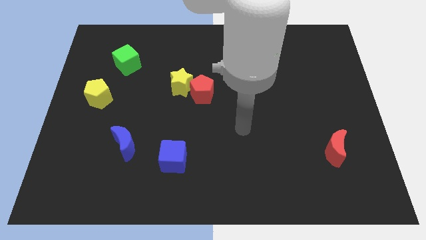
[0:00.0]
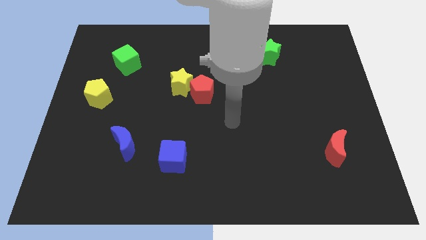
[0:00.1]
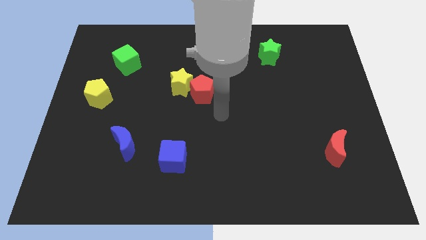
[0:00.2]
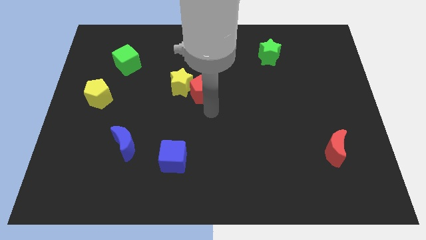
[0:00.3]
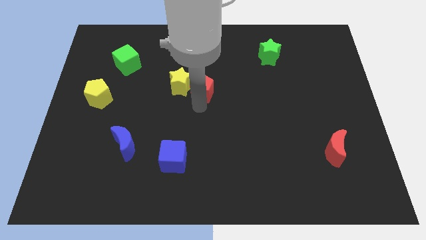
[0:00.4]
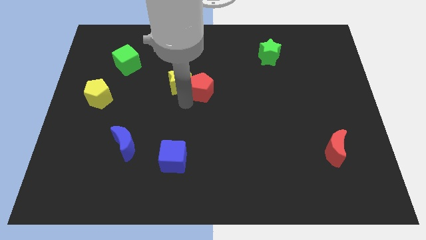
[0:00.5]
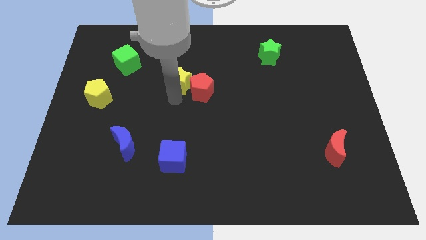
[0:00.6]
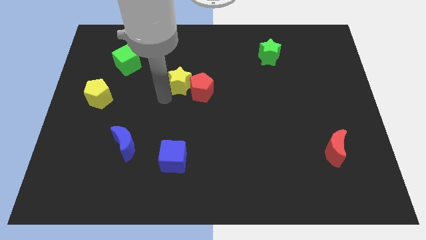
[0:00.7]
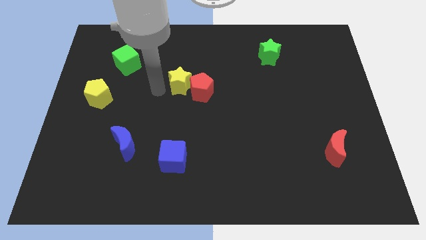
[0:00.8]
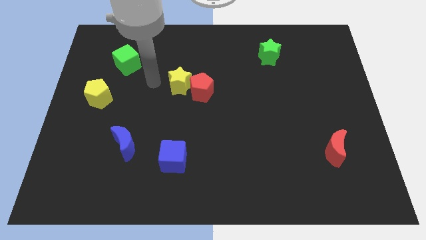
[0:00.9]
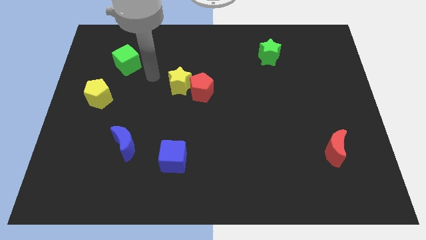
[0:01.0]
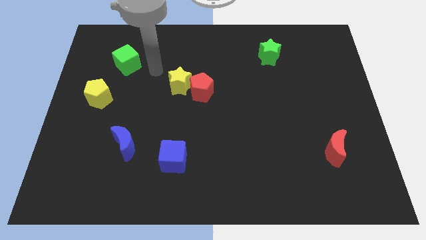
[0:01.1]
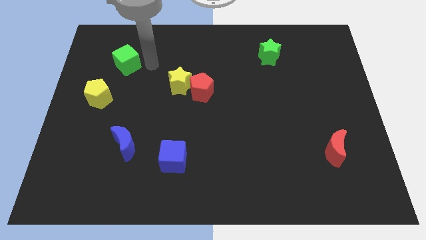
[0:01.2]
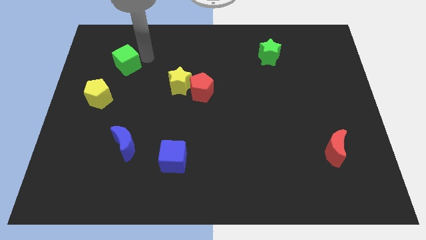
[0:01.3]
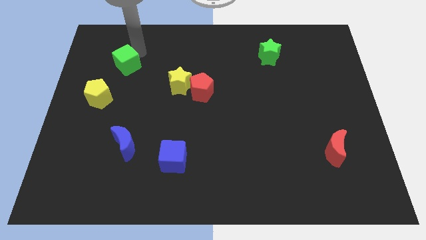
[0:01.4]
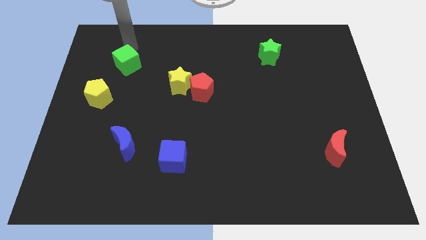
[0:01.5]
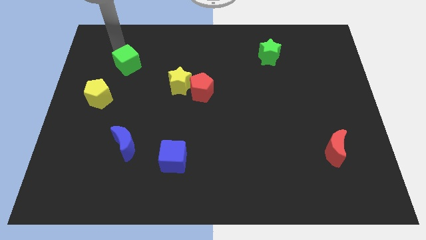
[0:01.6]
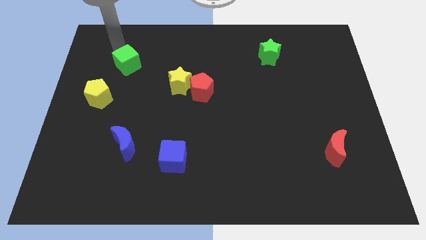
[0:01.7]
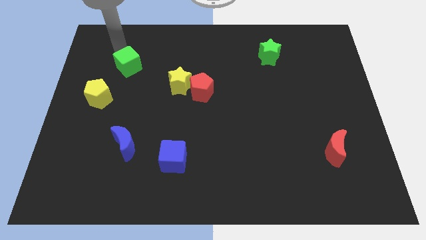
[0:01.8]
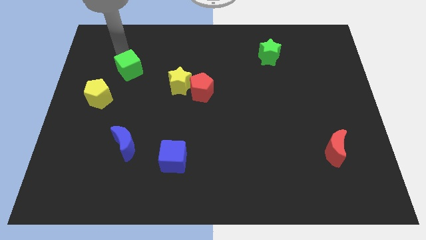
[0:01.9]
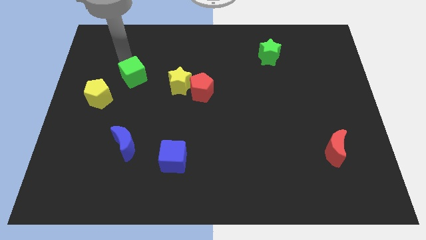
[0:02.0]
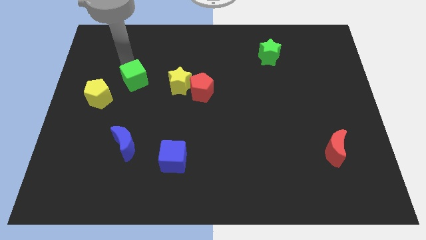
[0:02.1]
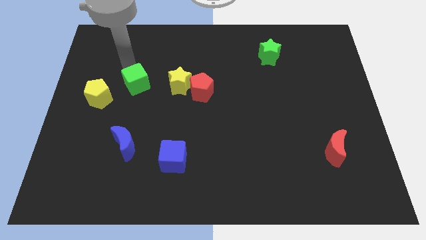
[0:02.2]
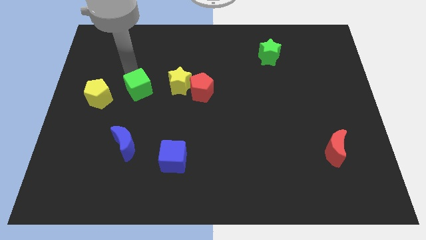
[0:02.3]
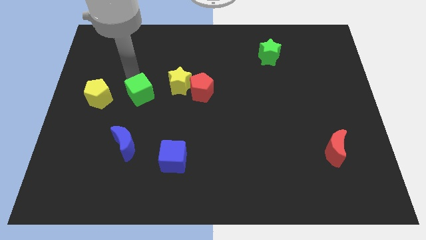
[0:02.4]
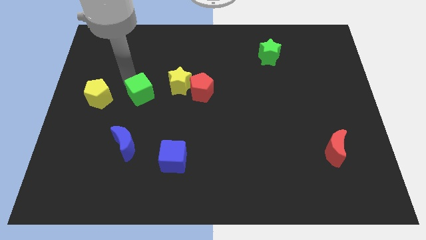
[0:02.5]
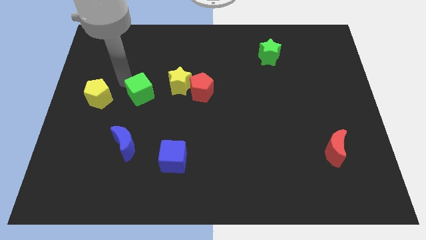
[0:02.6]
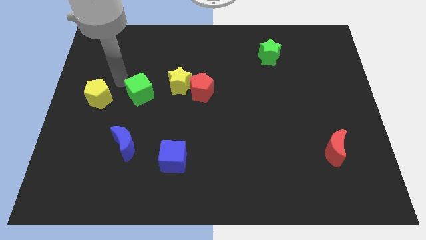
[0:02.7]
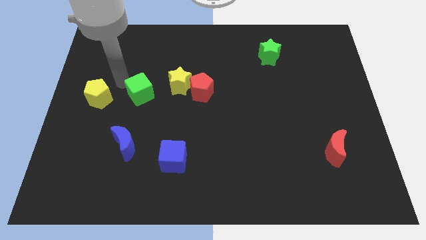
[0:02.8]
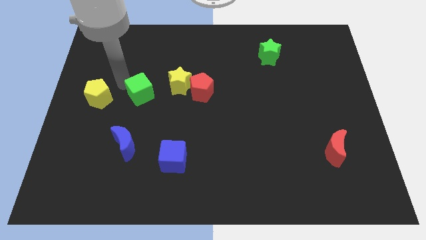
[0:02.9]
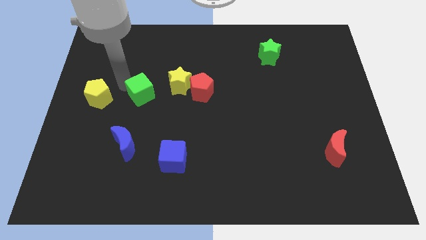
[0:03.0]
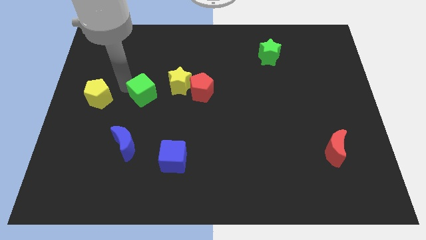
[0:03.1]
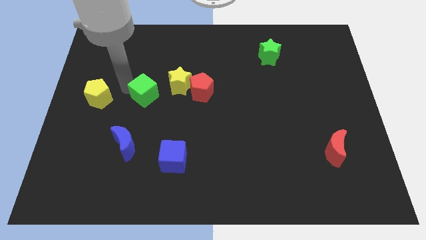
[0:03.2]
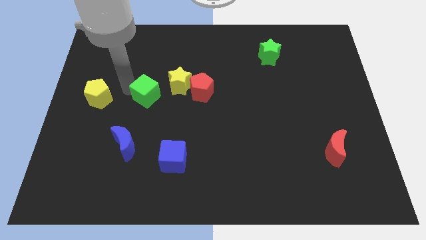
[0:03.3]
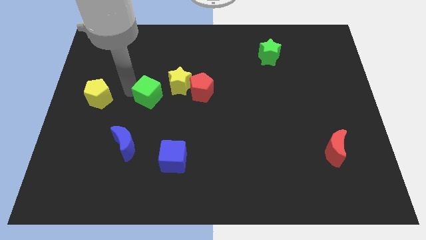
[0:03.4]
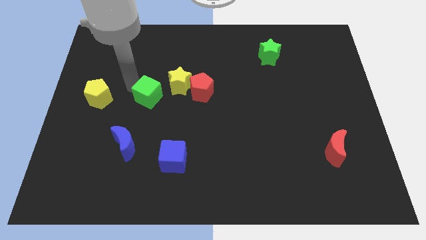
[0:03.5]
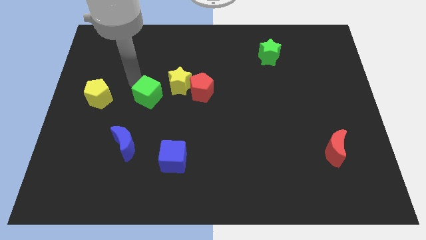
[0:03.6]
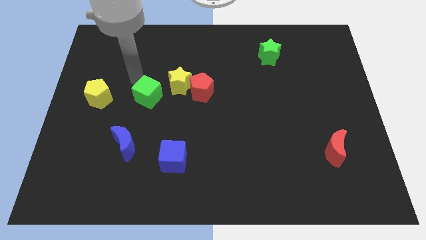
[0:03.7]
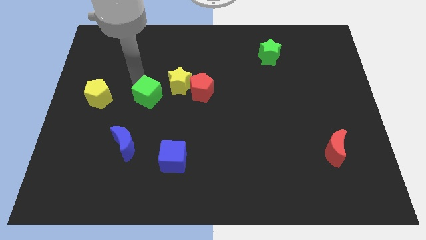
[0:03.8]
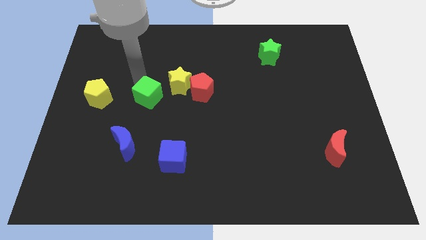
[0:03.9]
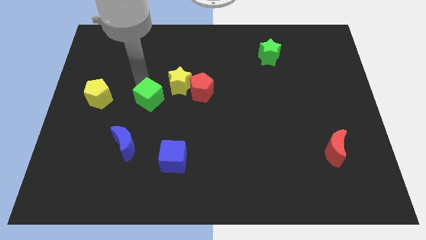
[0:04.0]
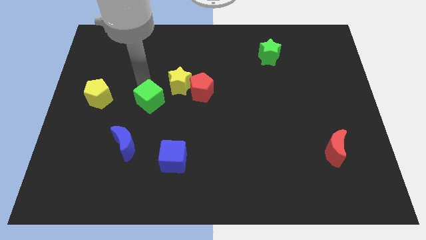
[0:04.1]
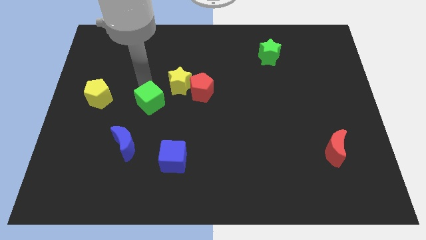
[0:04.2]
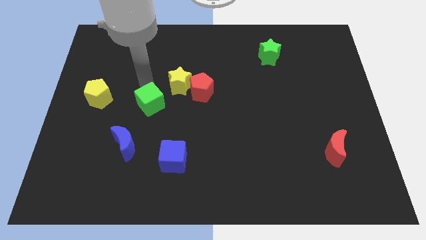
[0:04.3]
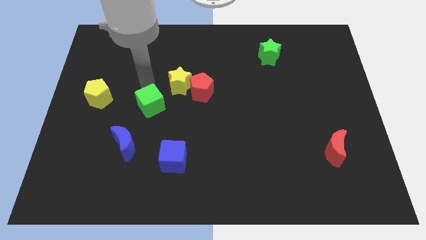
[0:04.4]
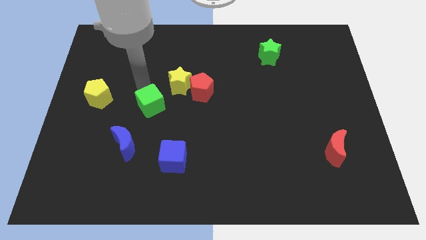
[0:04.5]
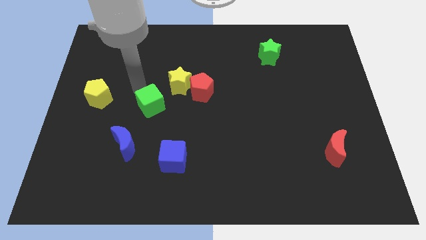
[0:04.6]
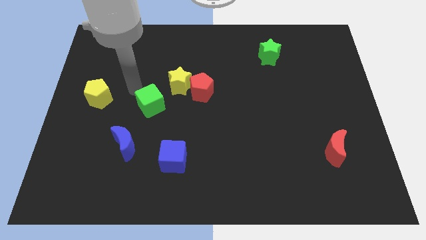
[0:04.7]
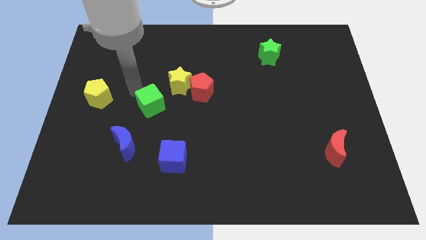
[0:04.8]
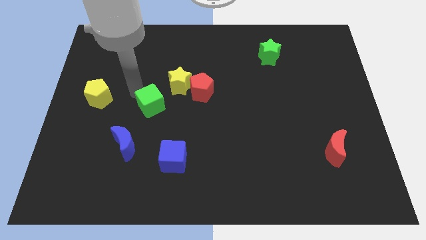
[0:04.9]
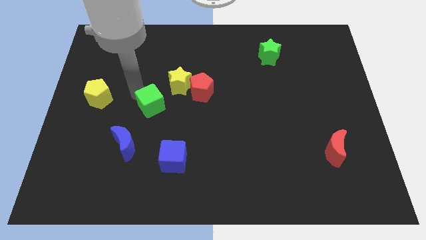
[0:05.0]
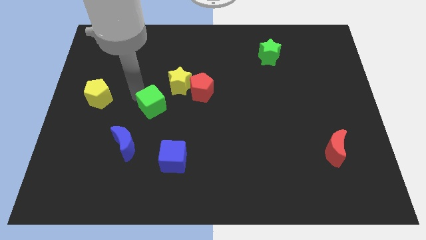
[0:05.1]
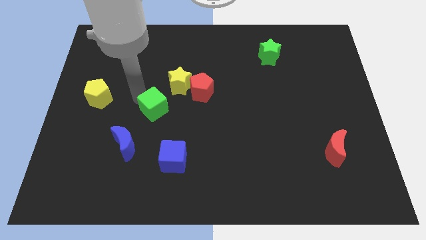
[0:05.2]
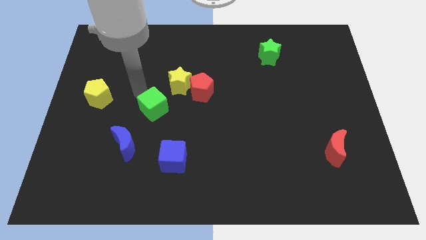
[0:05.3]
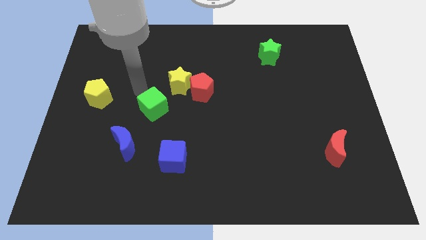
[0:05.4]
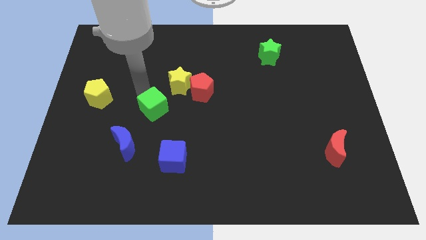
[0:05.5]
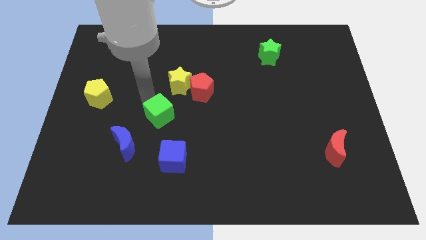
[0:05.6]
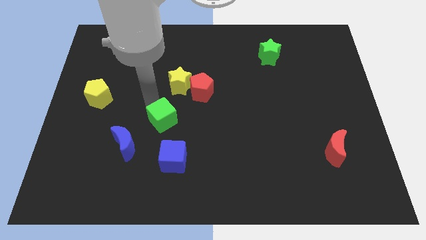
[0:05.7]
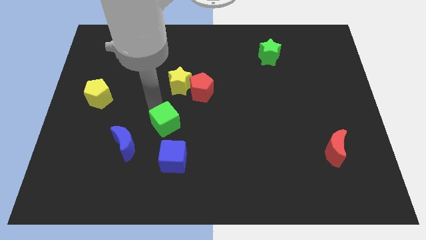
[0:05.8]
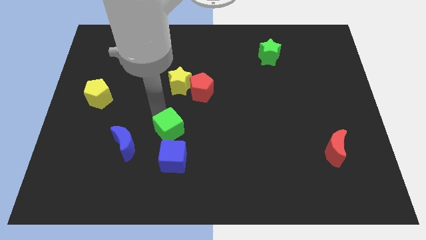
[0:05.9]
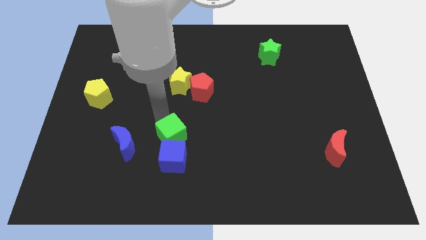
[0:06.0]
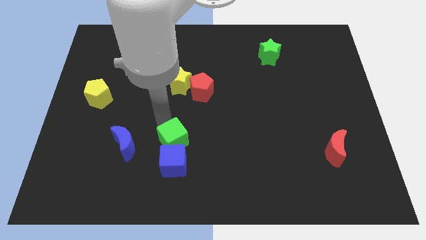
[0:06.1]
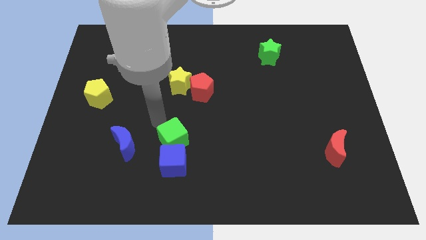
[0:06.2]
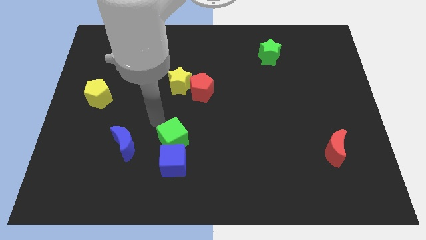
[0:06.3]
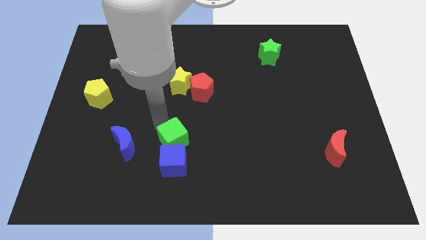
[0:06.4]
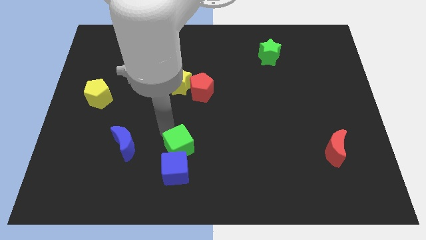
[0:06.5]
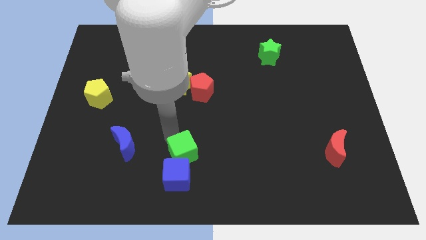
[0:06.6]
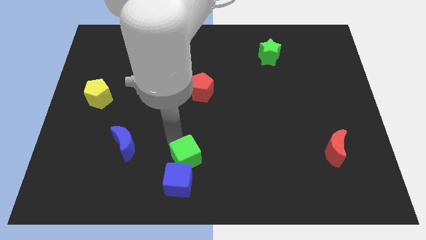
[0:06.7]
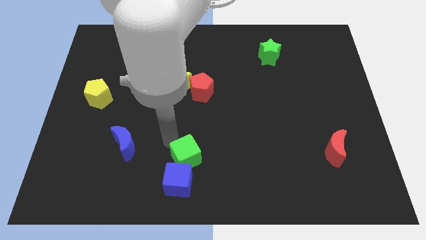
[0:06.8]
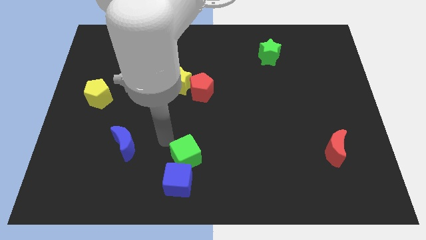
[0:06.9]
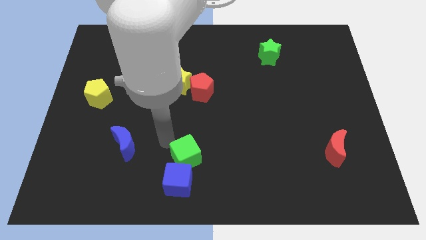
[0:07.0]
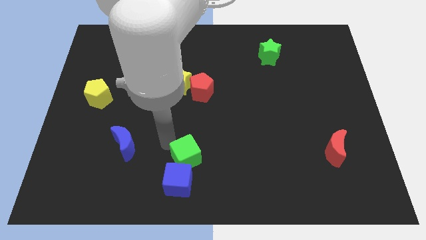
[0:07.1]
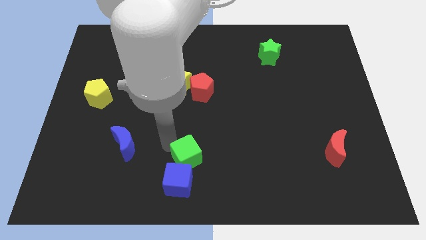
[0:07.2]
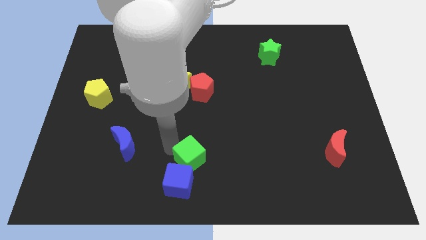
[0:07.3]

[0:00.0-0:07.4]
put the green cube to the bottom

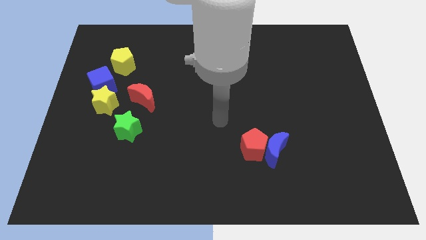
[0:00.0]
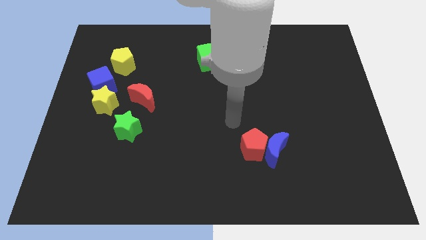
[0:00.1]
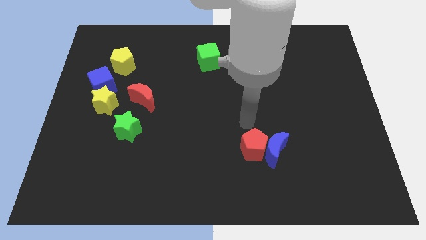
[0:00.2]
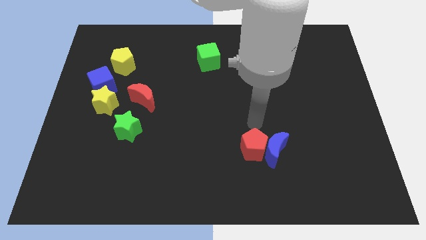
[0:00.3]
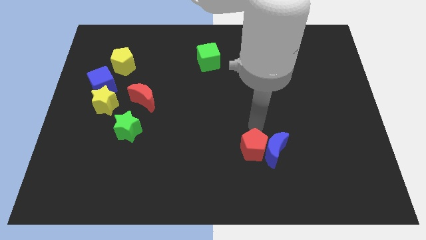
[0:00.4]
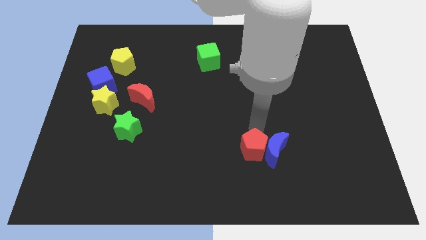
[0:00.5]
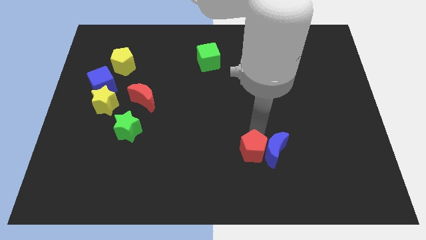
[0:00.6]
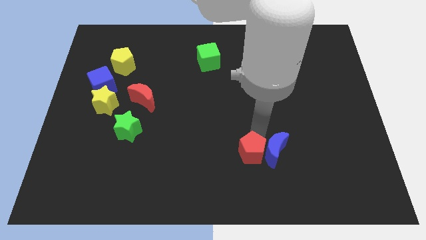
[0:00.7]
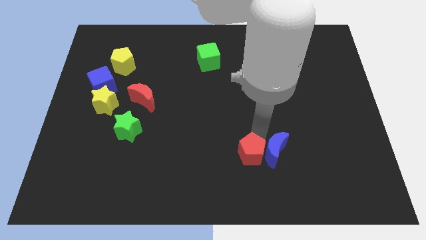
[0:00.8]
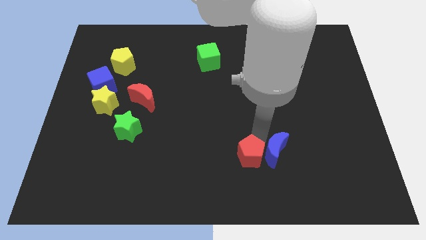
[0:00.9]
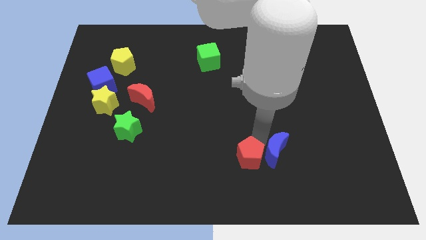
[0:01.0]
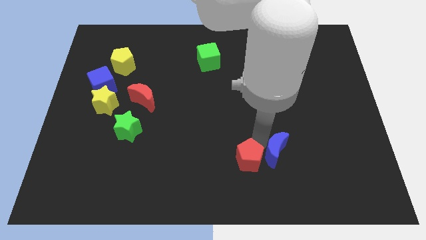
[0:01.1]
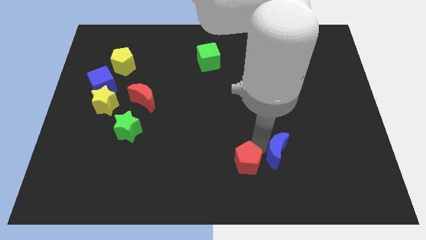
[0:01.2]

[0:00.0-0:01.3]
slide the red pentagon to the bottom side
